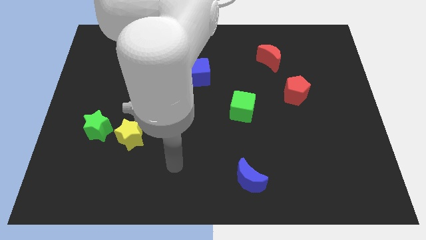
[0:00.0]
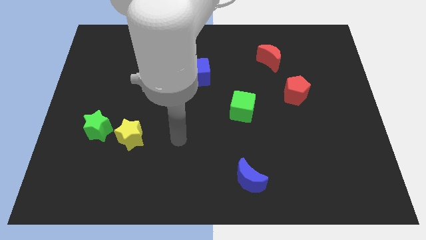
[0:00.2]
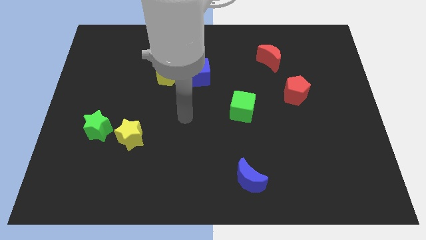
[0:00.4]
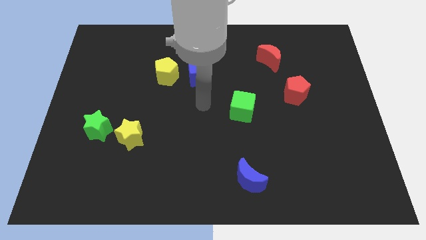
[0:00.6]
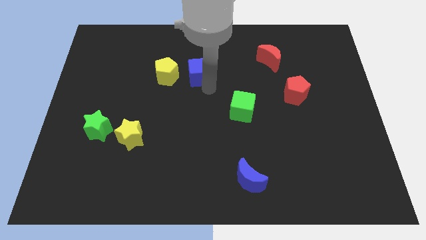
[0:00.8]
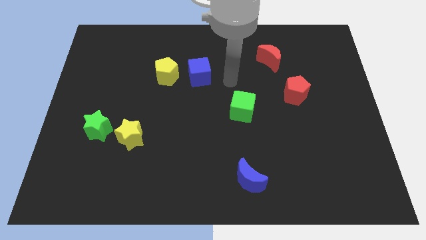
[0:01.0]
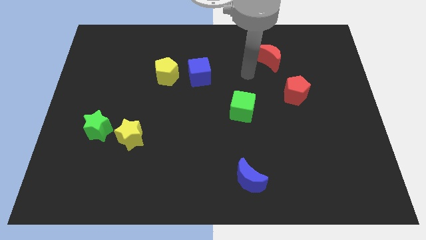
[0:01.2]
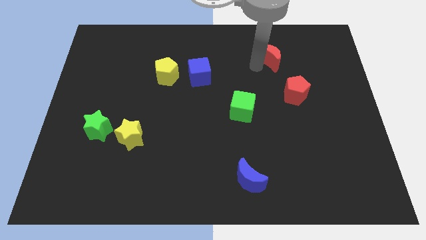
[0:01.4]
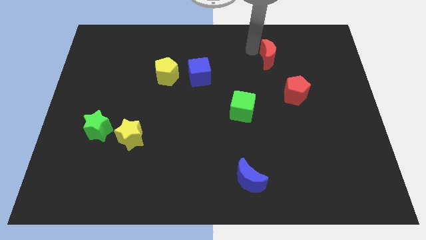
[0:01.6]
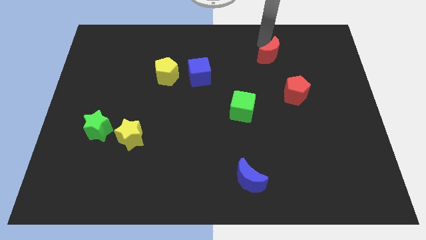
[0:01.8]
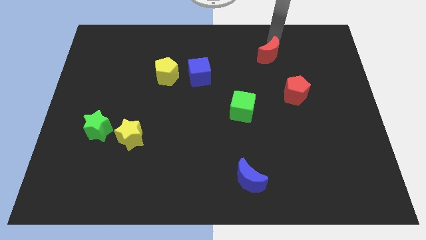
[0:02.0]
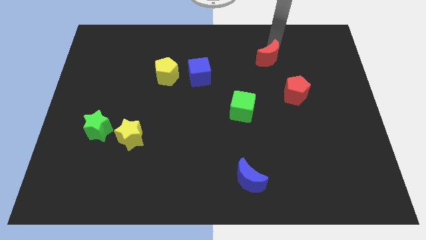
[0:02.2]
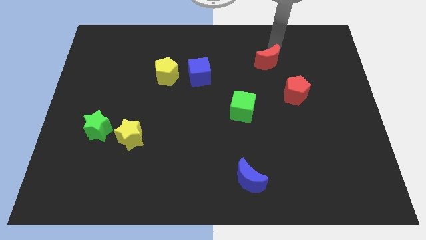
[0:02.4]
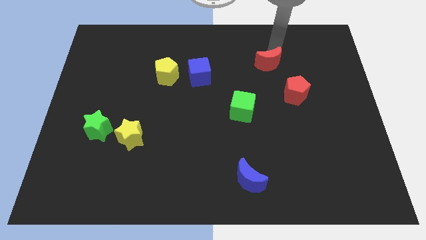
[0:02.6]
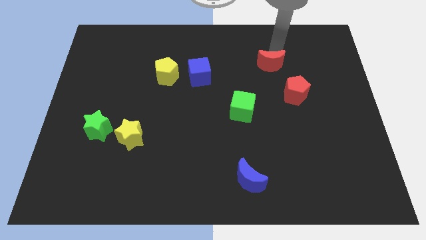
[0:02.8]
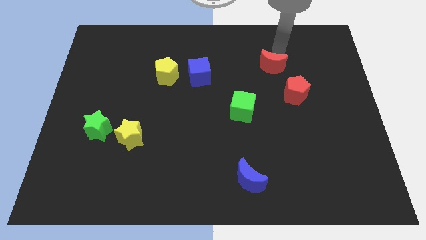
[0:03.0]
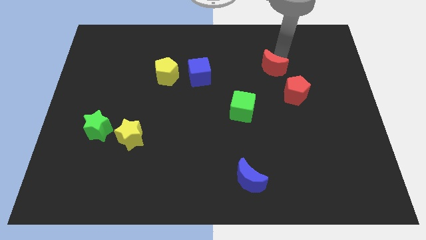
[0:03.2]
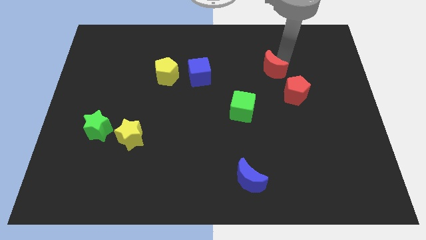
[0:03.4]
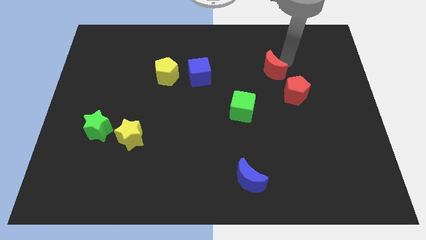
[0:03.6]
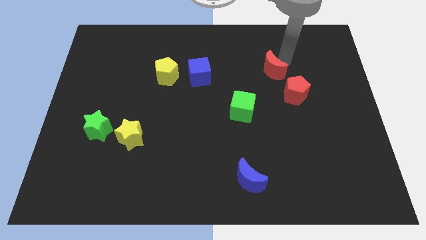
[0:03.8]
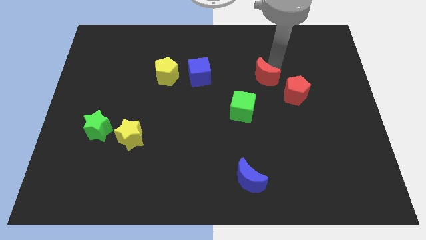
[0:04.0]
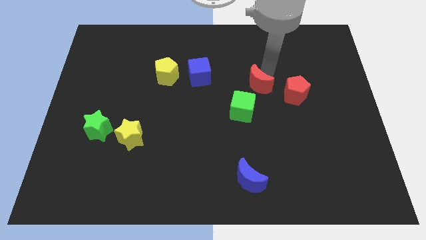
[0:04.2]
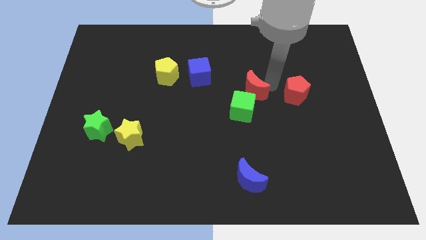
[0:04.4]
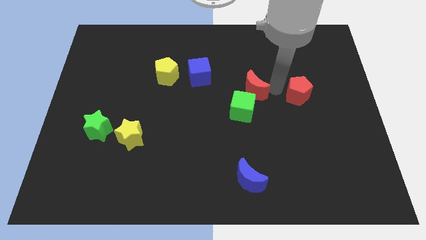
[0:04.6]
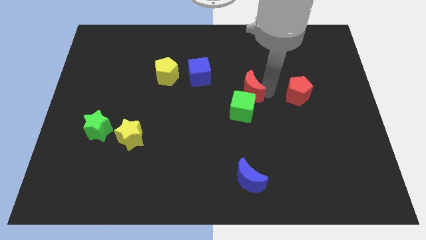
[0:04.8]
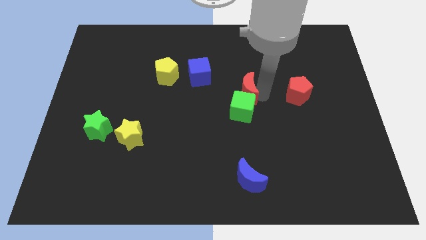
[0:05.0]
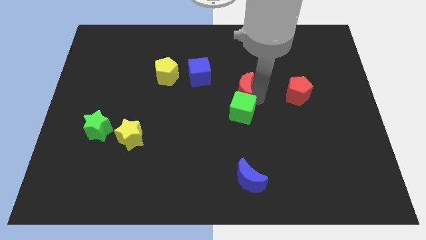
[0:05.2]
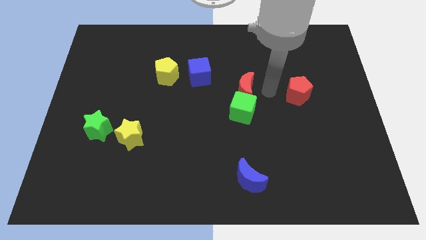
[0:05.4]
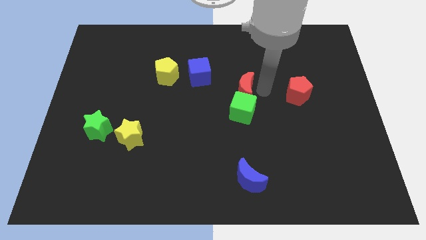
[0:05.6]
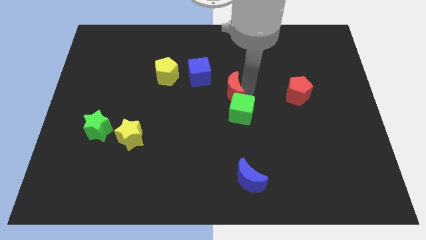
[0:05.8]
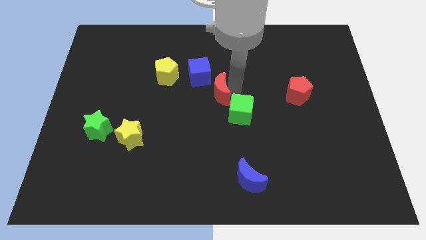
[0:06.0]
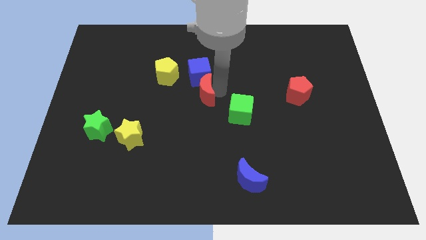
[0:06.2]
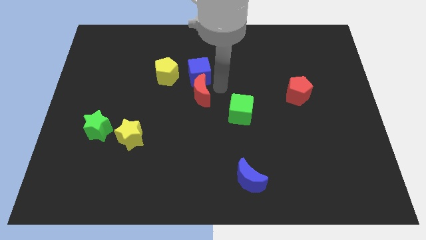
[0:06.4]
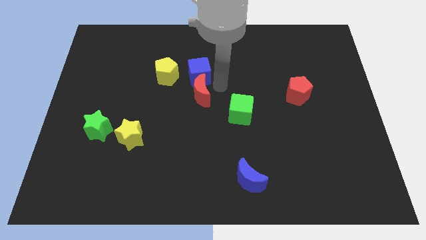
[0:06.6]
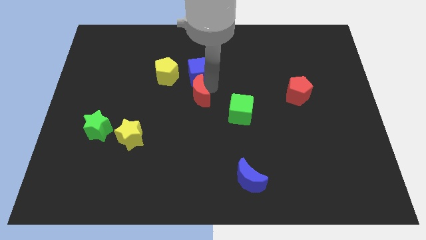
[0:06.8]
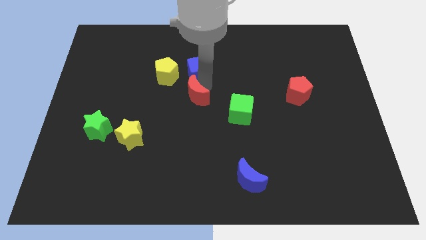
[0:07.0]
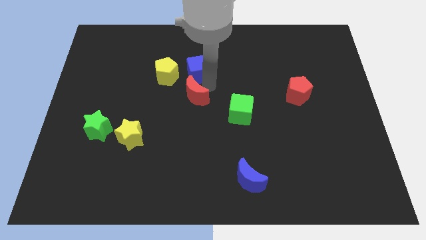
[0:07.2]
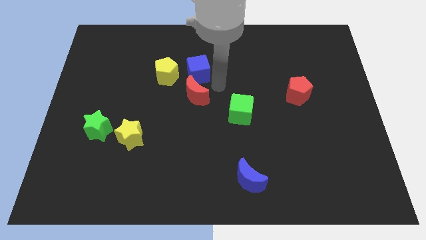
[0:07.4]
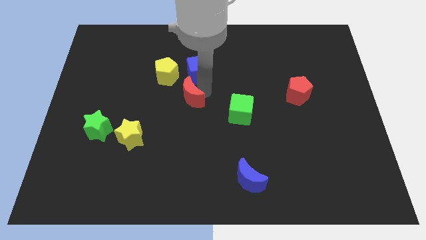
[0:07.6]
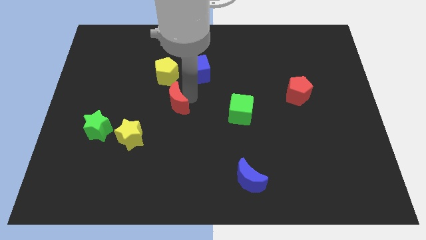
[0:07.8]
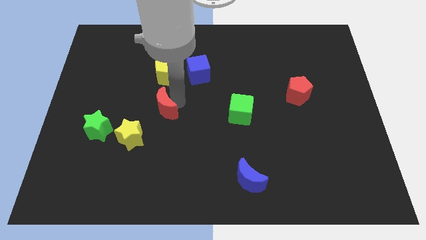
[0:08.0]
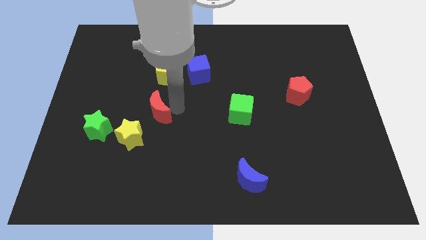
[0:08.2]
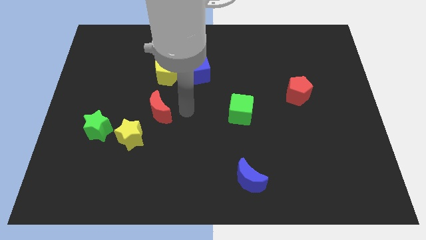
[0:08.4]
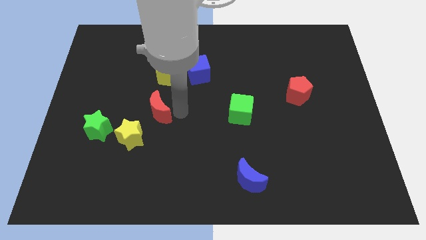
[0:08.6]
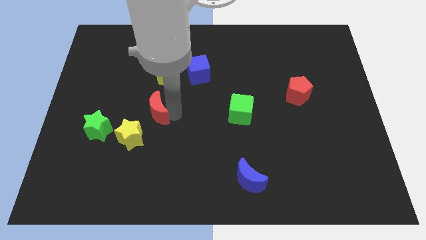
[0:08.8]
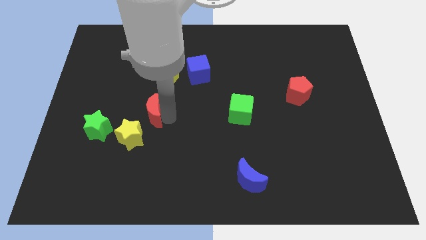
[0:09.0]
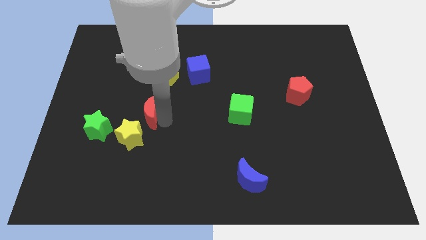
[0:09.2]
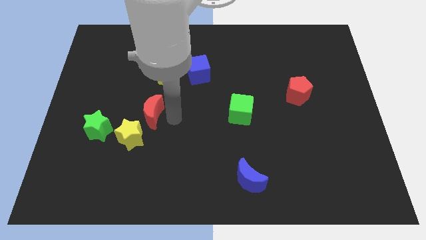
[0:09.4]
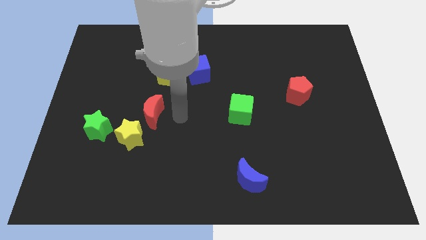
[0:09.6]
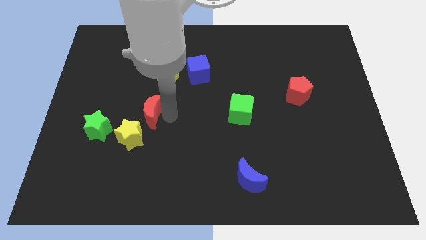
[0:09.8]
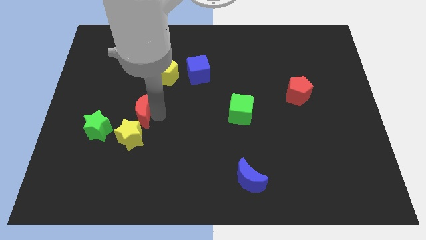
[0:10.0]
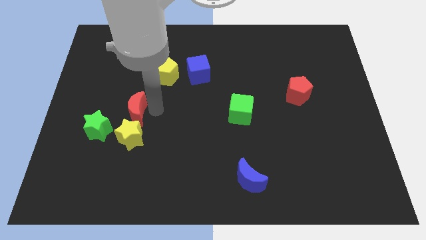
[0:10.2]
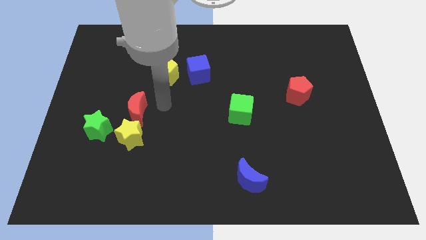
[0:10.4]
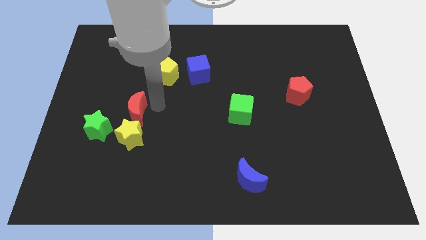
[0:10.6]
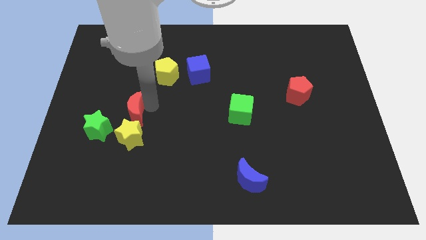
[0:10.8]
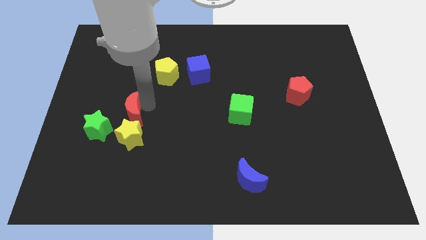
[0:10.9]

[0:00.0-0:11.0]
slide the red moon to the top left of the yellow star

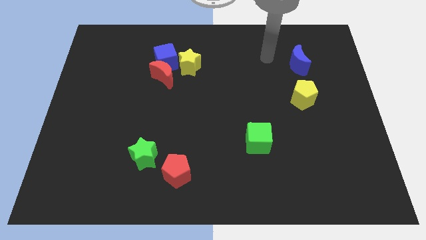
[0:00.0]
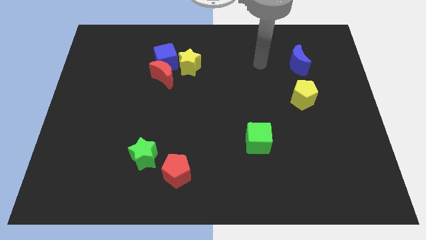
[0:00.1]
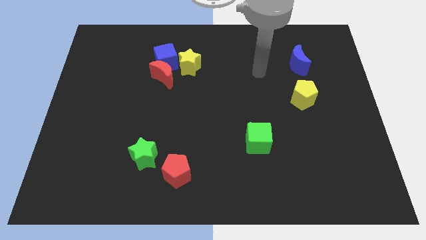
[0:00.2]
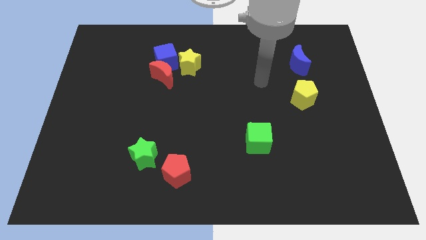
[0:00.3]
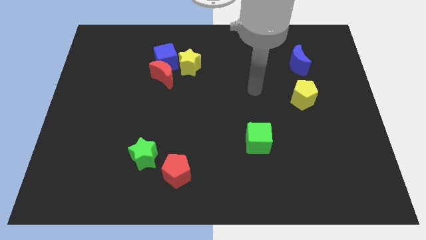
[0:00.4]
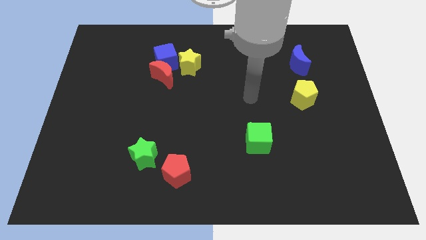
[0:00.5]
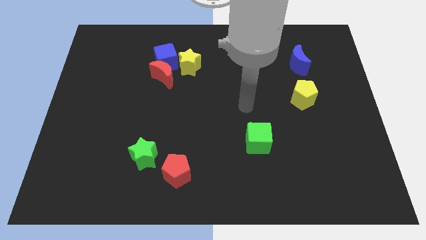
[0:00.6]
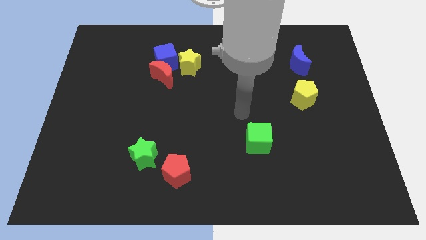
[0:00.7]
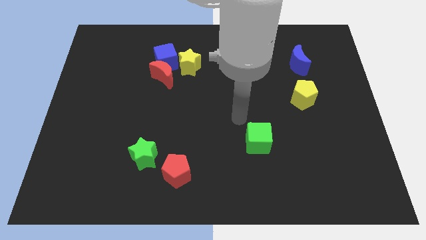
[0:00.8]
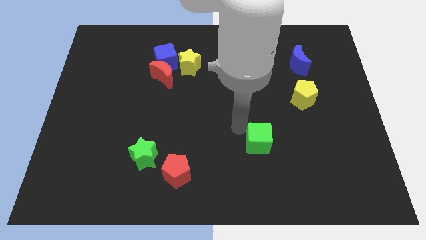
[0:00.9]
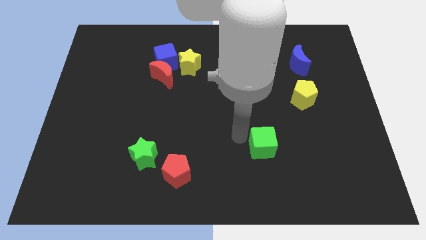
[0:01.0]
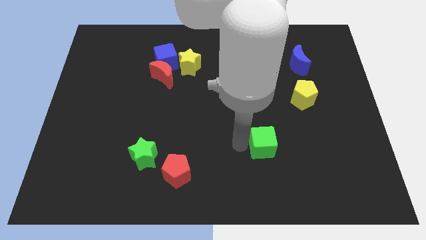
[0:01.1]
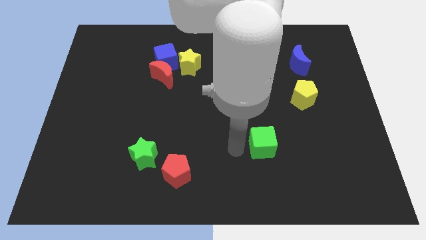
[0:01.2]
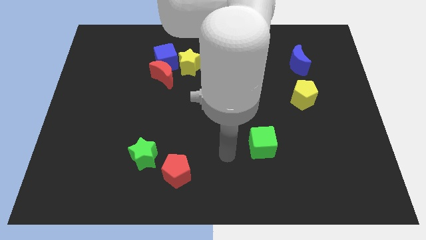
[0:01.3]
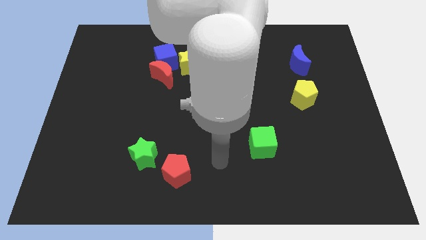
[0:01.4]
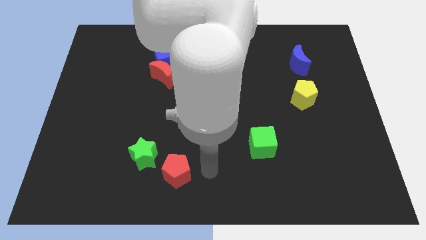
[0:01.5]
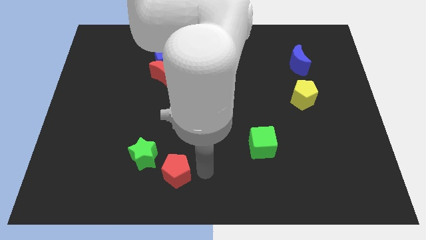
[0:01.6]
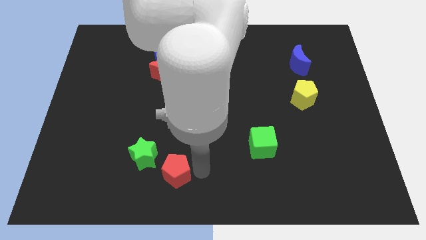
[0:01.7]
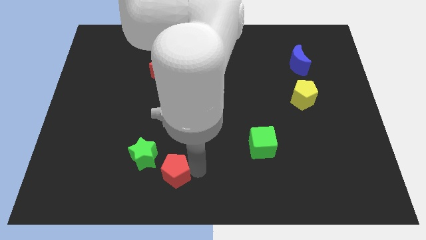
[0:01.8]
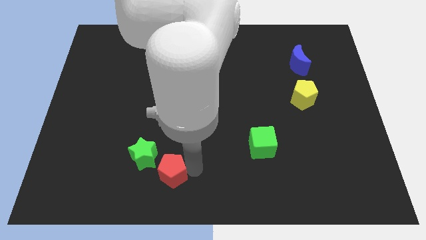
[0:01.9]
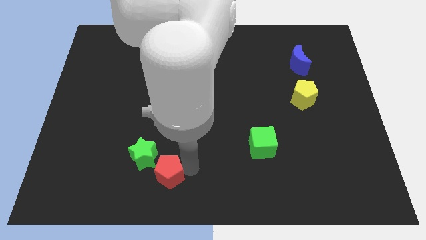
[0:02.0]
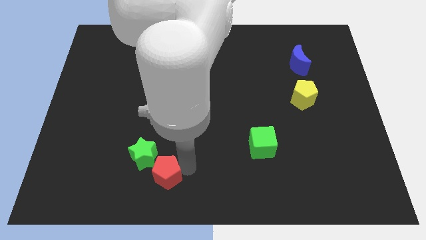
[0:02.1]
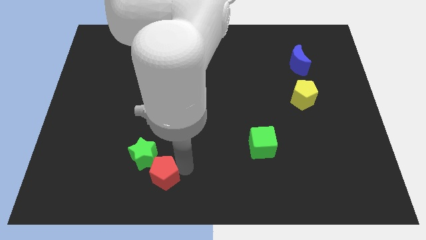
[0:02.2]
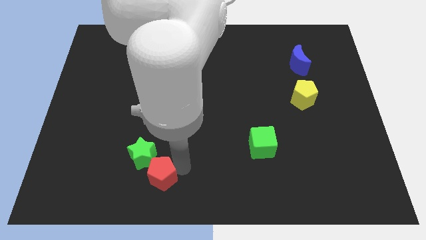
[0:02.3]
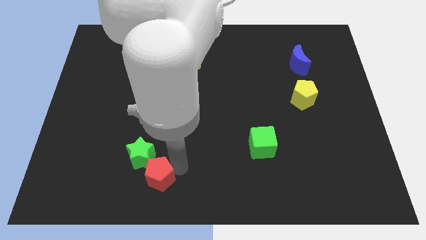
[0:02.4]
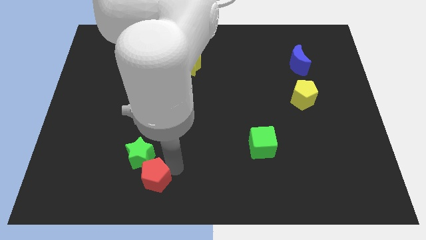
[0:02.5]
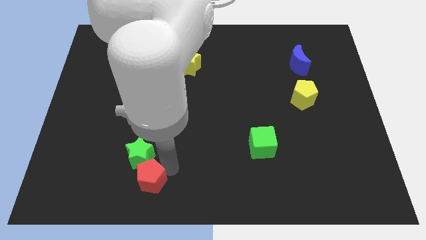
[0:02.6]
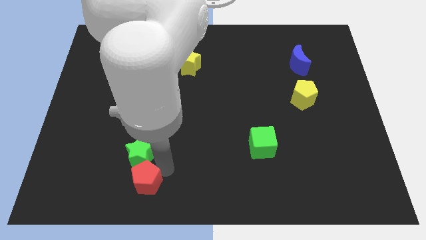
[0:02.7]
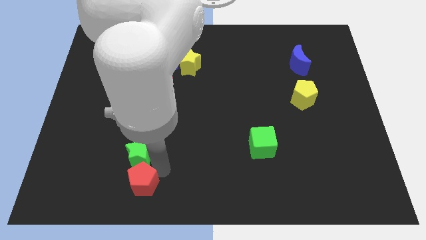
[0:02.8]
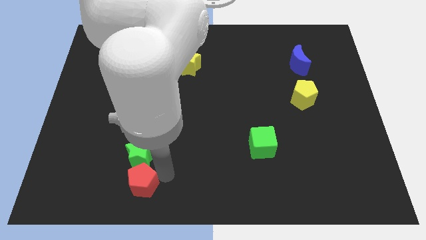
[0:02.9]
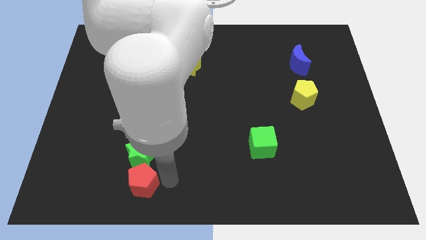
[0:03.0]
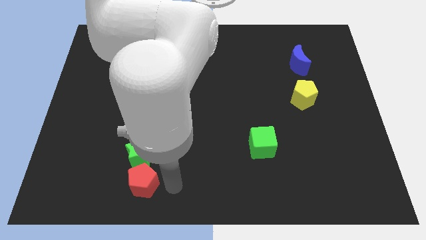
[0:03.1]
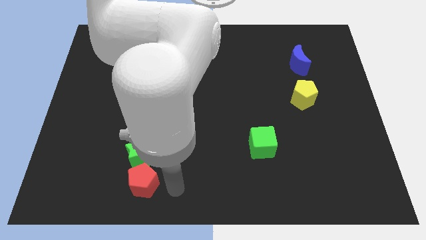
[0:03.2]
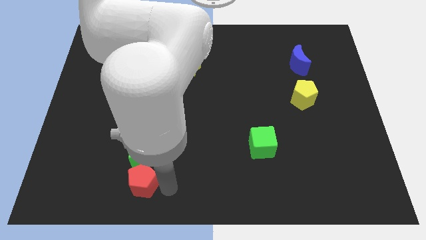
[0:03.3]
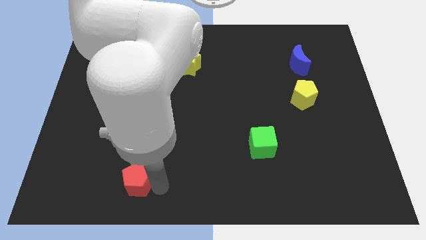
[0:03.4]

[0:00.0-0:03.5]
put the red pentagon diagonally down and to the left of the green star
